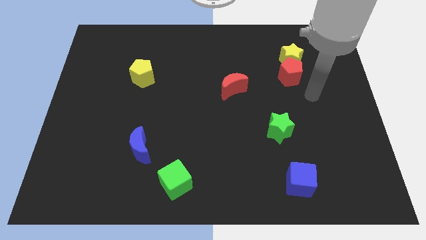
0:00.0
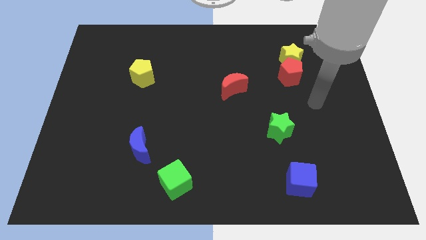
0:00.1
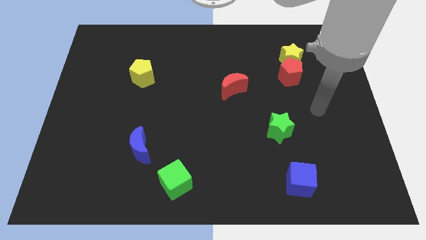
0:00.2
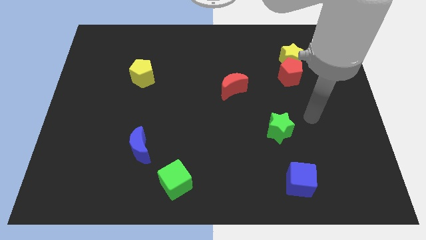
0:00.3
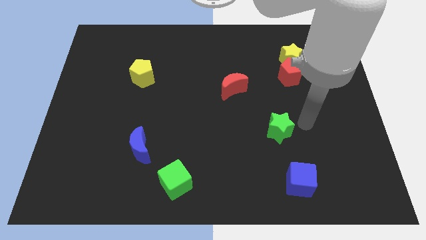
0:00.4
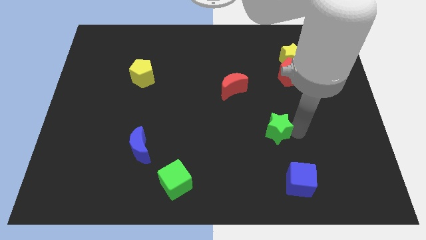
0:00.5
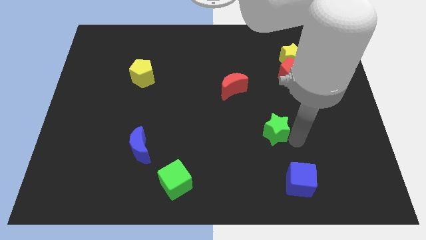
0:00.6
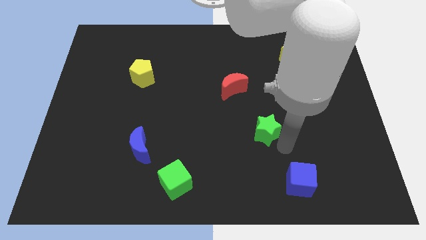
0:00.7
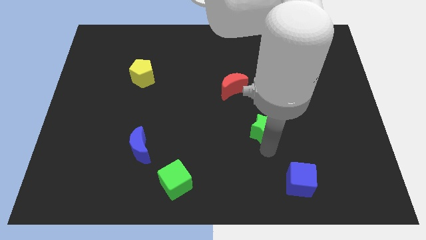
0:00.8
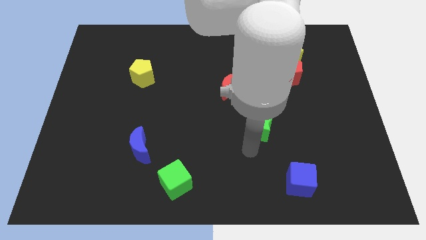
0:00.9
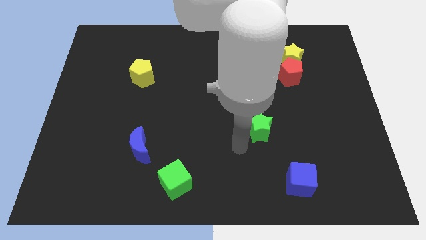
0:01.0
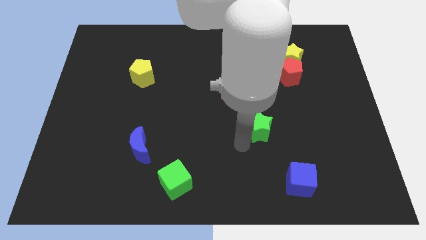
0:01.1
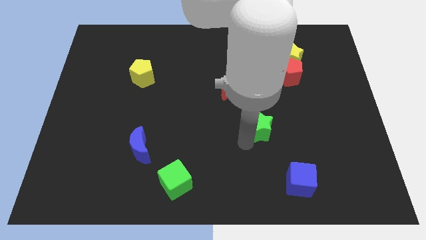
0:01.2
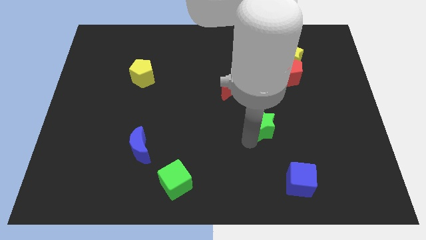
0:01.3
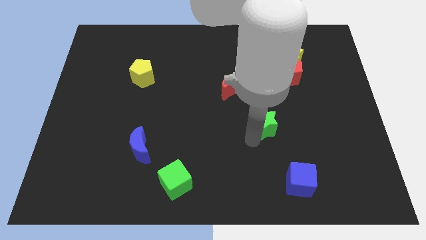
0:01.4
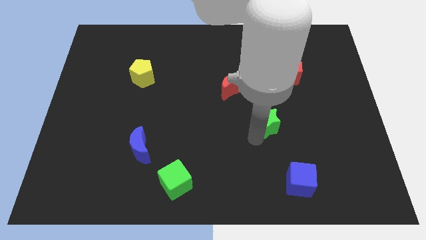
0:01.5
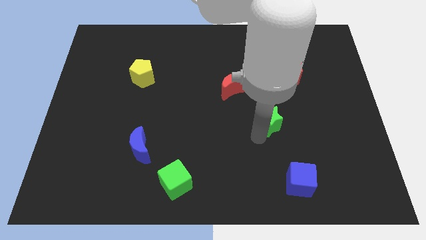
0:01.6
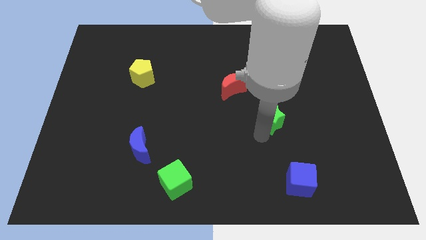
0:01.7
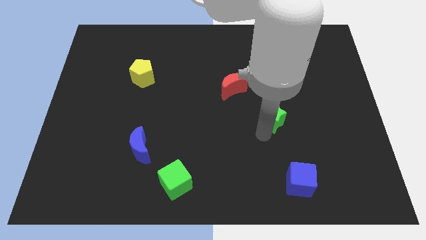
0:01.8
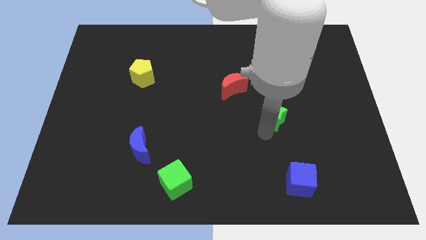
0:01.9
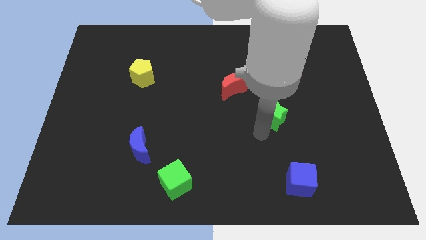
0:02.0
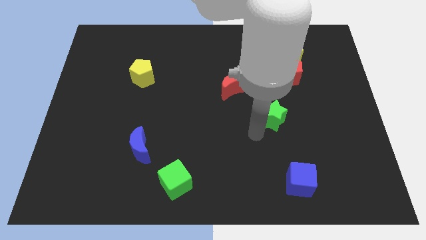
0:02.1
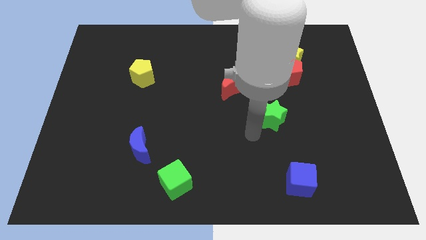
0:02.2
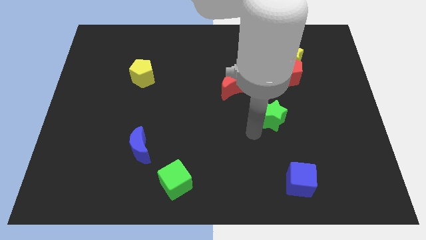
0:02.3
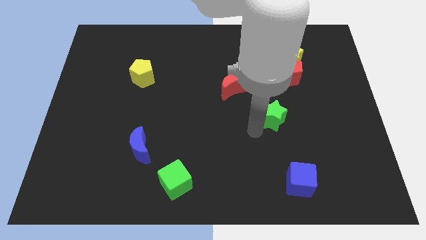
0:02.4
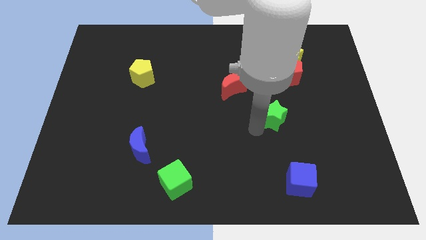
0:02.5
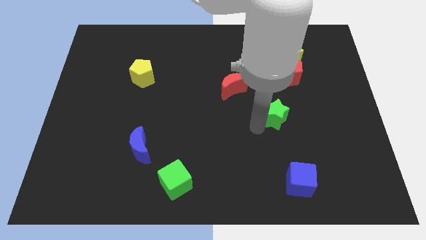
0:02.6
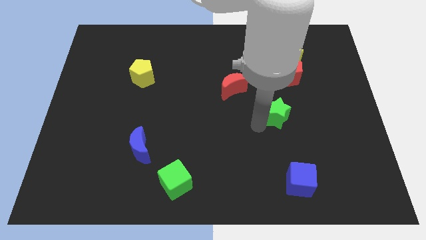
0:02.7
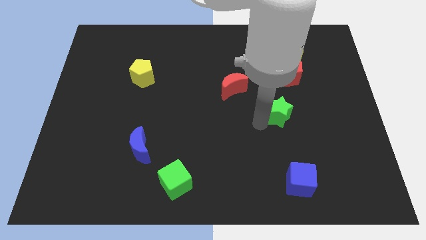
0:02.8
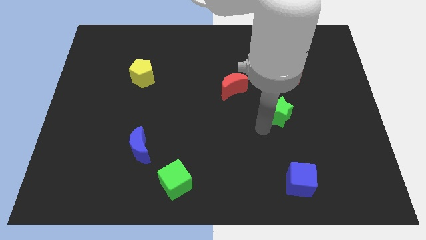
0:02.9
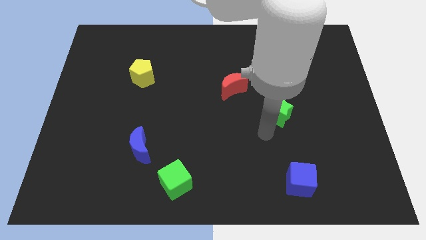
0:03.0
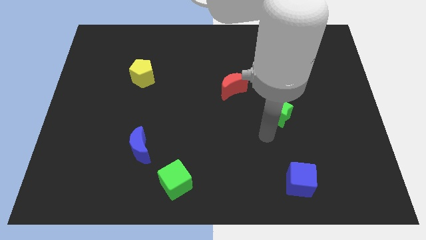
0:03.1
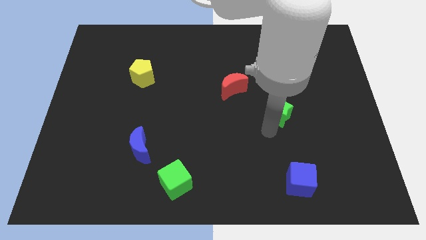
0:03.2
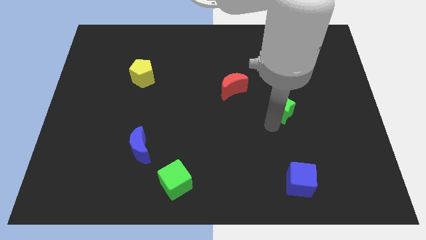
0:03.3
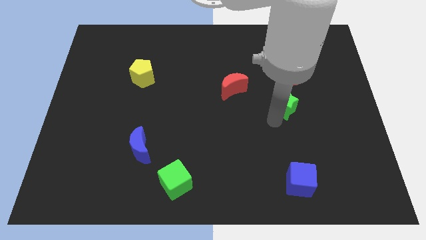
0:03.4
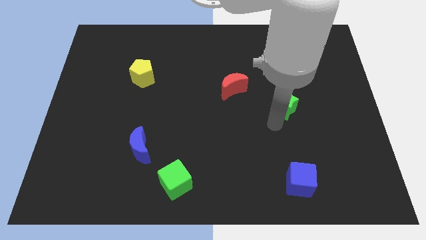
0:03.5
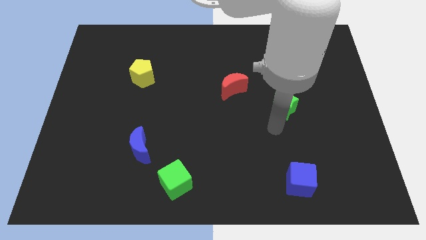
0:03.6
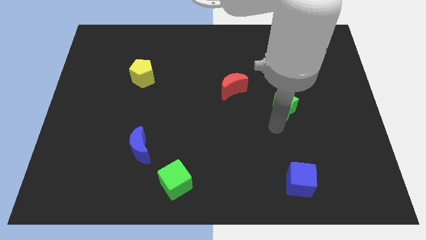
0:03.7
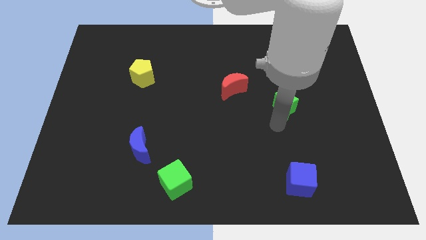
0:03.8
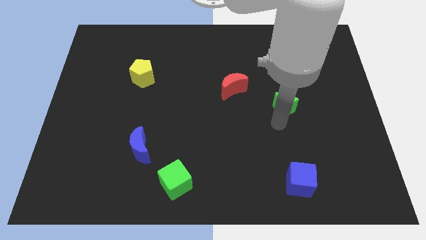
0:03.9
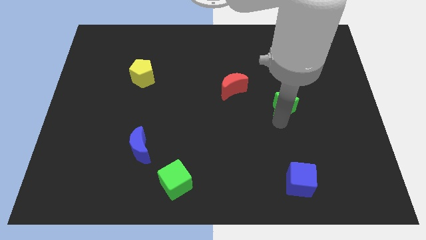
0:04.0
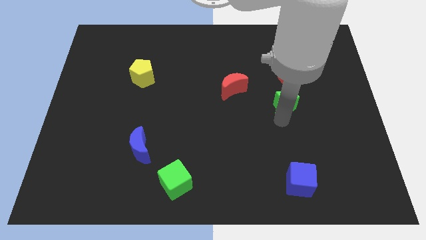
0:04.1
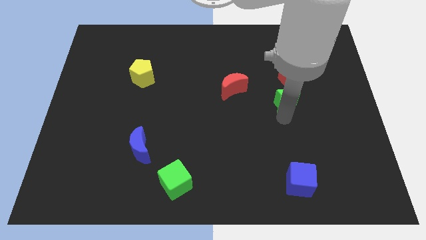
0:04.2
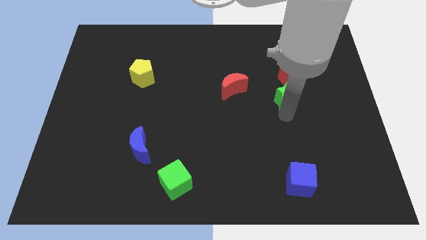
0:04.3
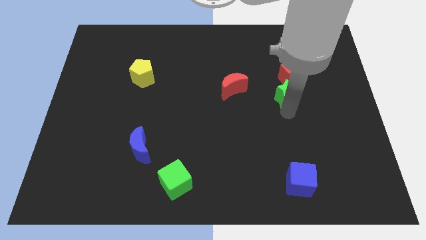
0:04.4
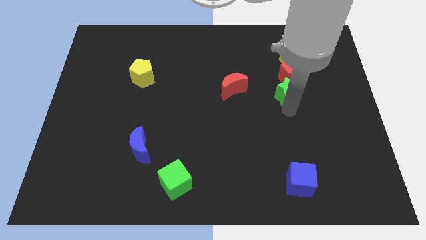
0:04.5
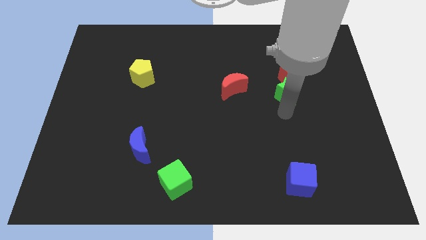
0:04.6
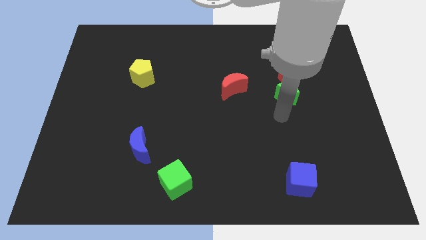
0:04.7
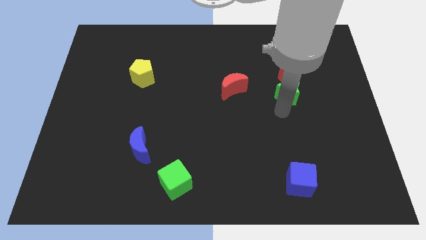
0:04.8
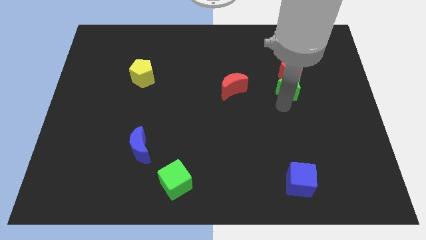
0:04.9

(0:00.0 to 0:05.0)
push the green star next to the red pentagon

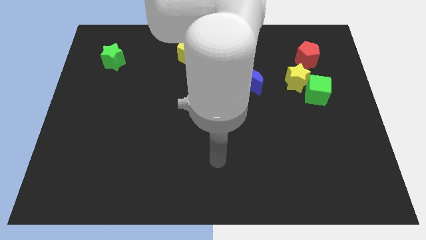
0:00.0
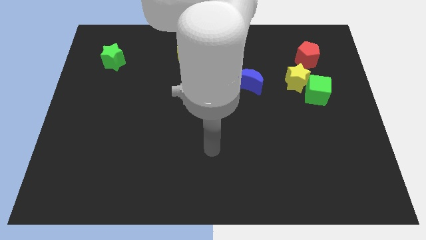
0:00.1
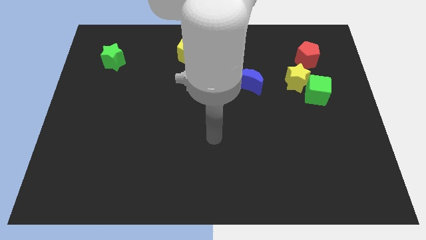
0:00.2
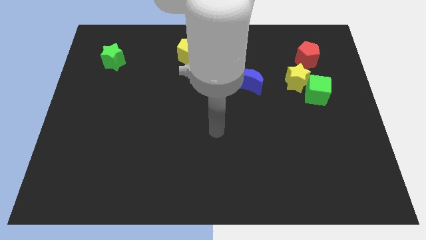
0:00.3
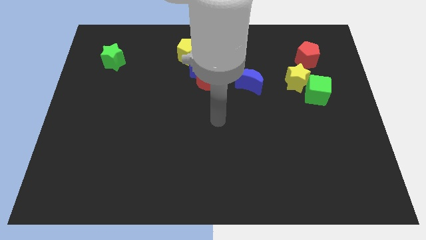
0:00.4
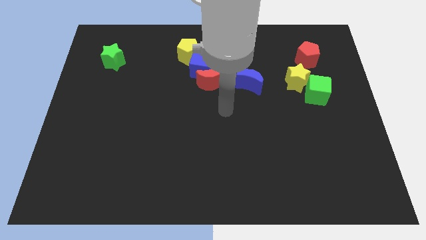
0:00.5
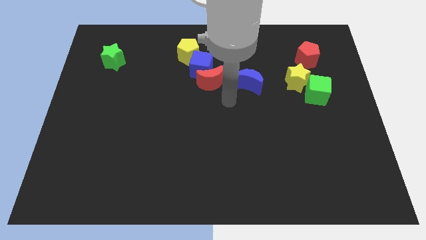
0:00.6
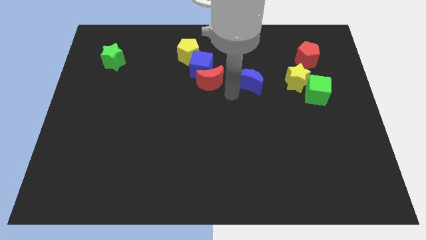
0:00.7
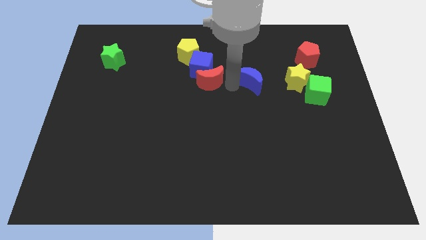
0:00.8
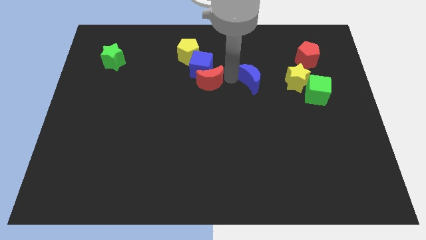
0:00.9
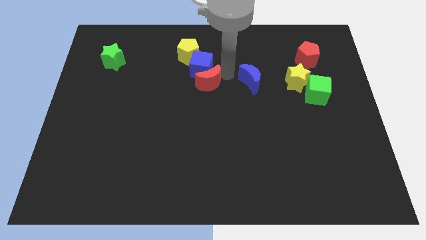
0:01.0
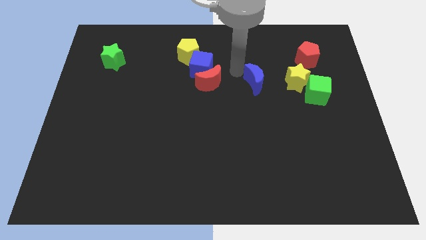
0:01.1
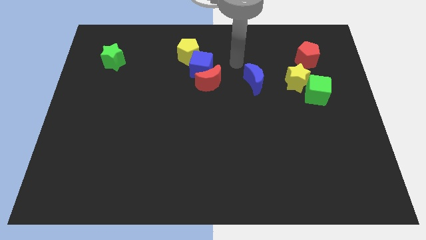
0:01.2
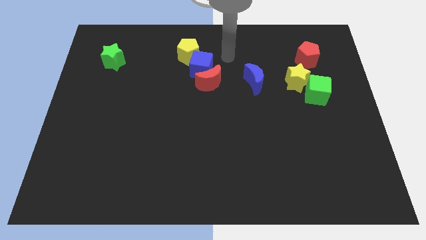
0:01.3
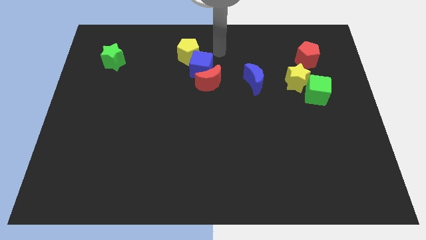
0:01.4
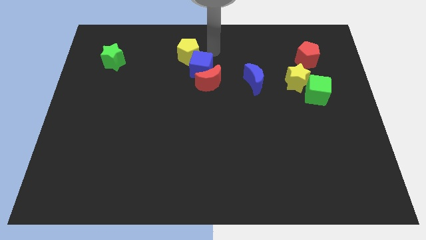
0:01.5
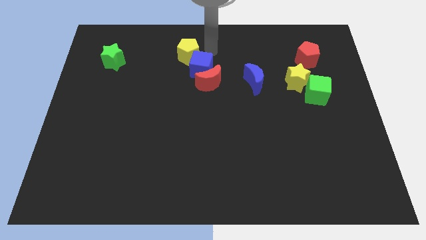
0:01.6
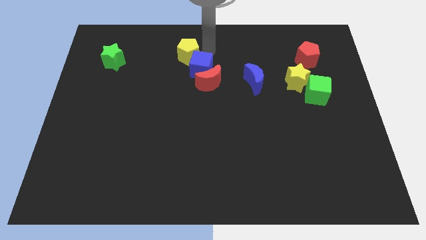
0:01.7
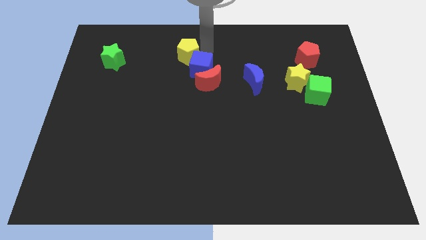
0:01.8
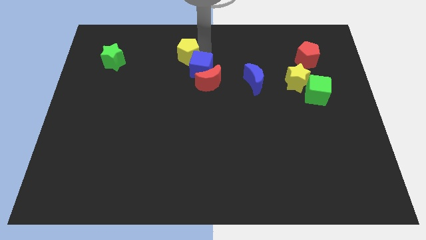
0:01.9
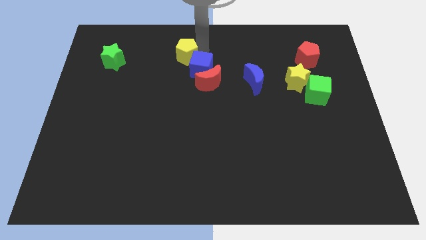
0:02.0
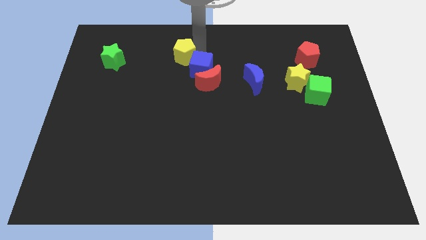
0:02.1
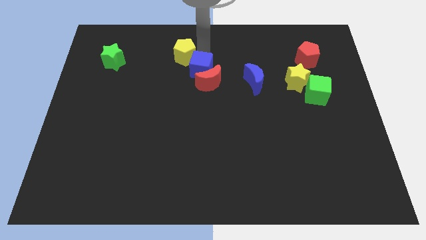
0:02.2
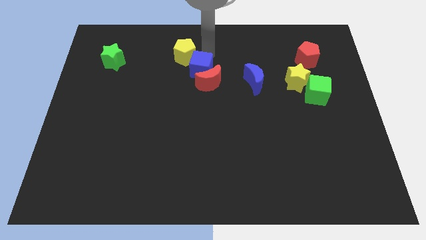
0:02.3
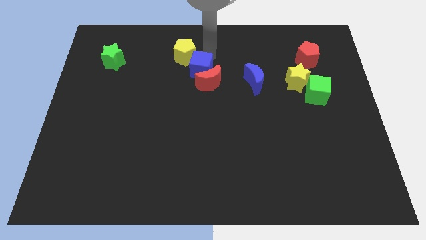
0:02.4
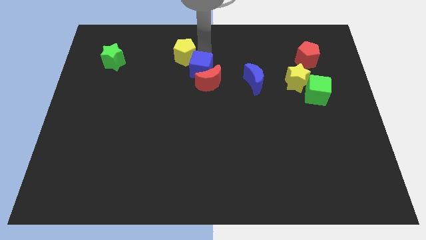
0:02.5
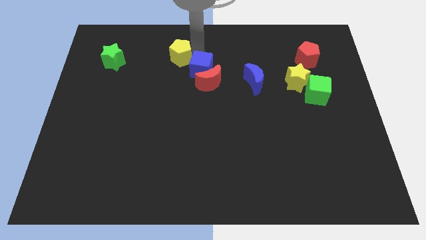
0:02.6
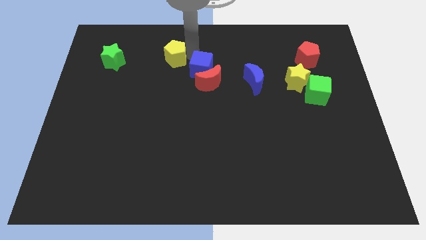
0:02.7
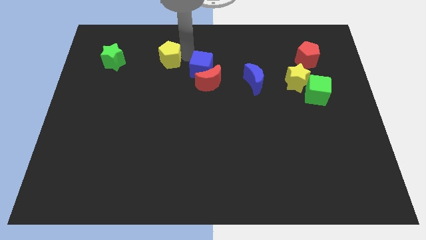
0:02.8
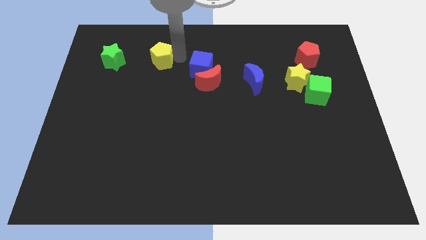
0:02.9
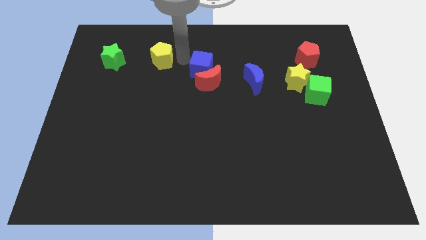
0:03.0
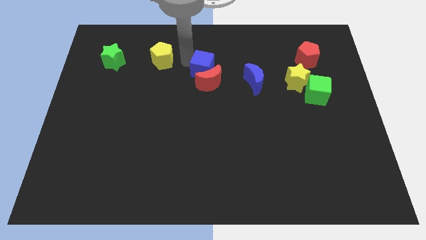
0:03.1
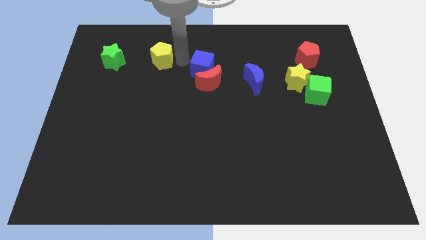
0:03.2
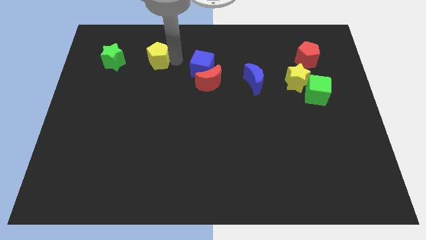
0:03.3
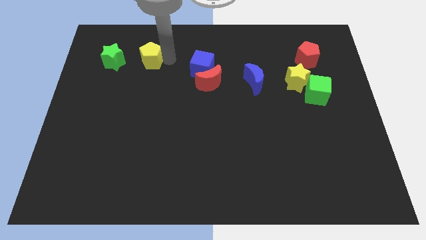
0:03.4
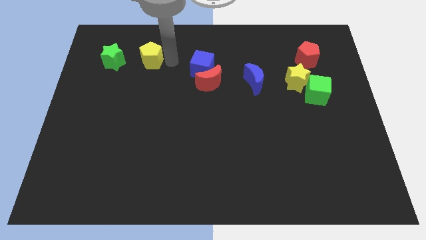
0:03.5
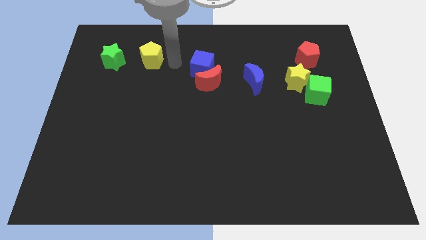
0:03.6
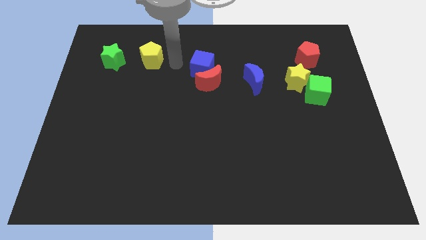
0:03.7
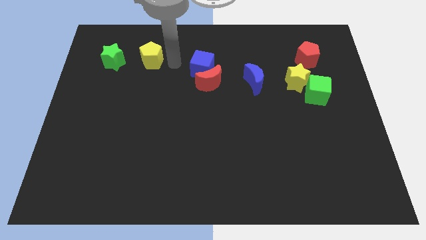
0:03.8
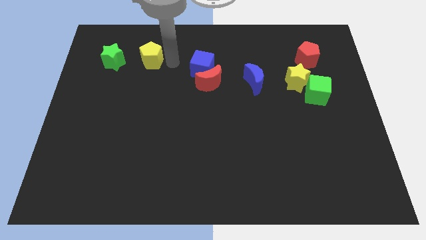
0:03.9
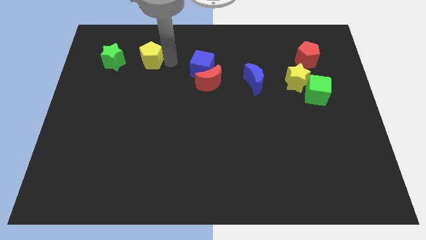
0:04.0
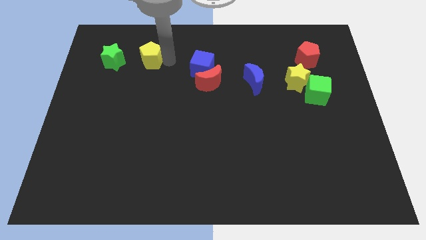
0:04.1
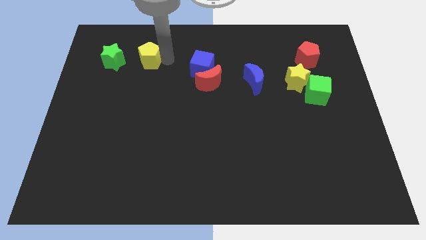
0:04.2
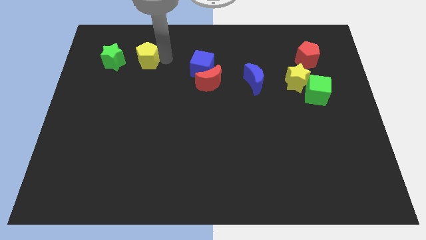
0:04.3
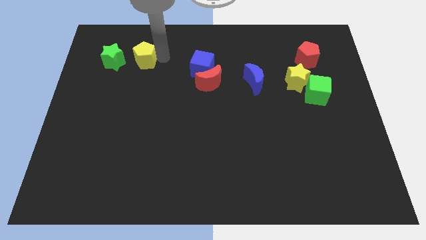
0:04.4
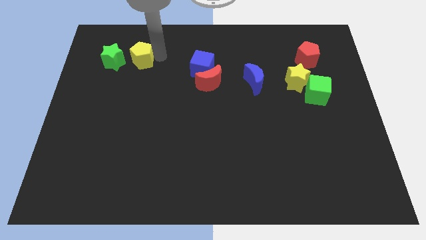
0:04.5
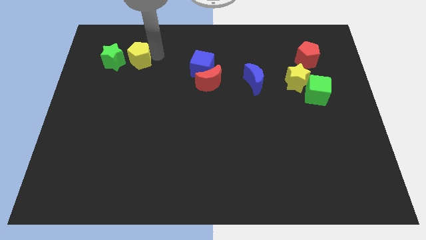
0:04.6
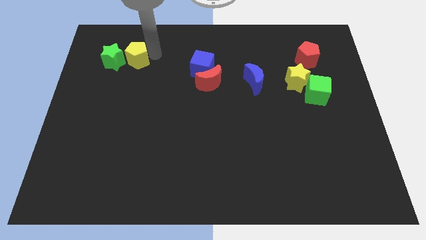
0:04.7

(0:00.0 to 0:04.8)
move the yellow pentagon next to the green star
